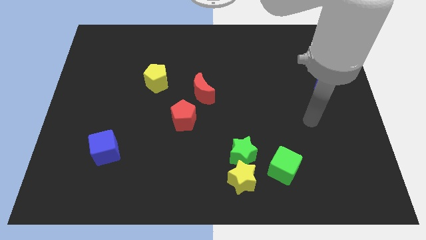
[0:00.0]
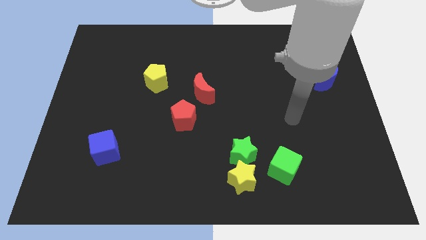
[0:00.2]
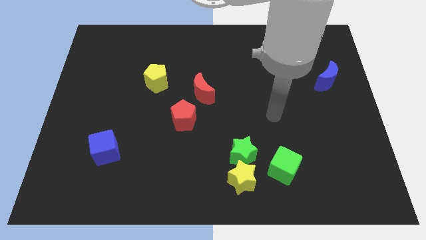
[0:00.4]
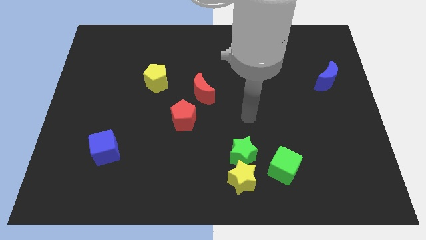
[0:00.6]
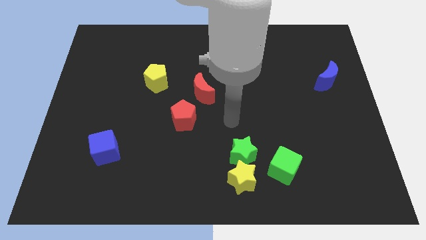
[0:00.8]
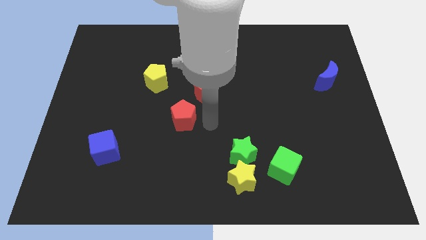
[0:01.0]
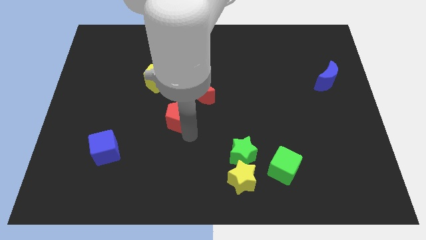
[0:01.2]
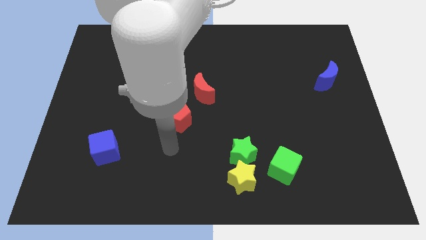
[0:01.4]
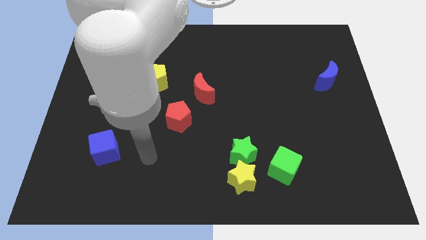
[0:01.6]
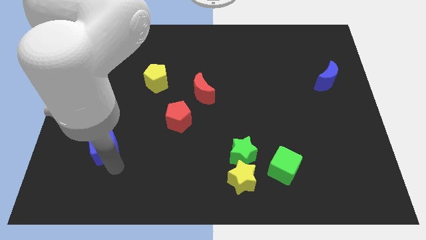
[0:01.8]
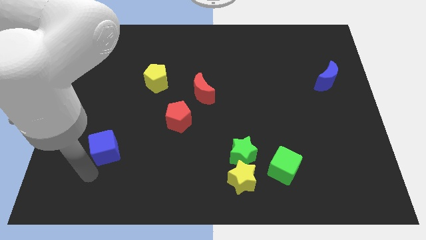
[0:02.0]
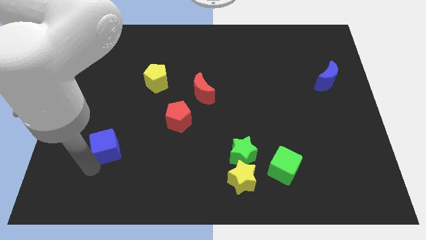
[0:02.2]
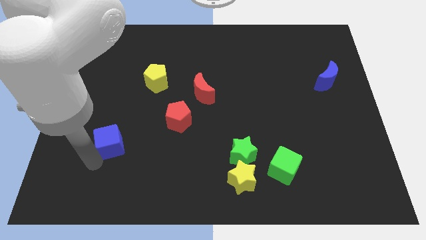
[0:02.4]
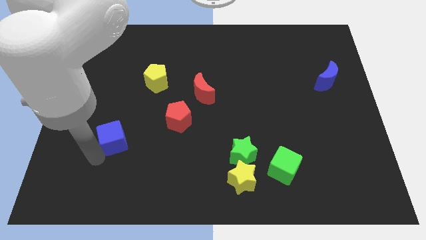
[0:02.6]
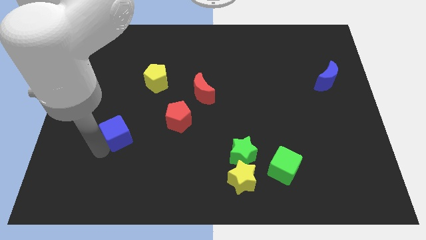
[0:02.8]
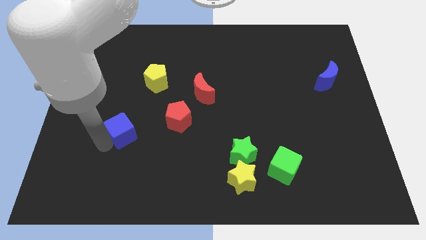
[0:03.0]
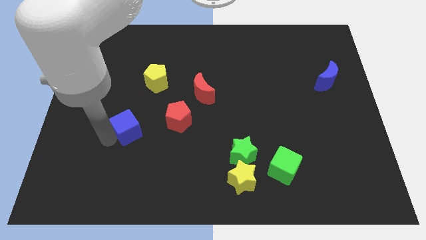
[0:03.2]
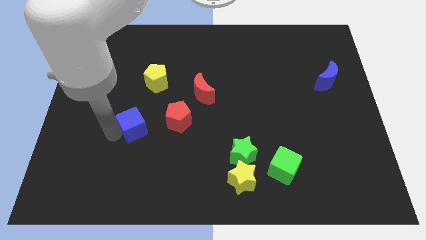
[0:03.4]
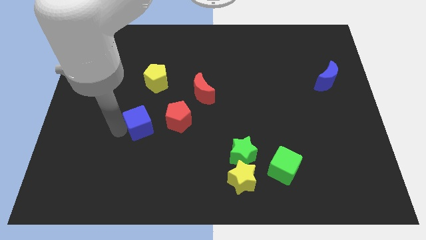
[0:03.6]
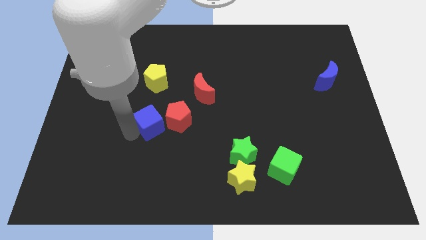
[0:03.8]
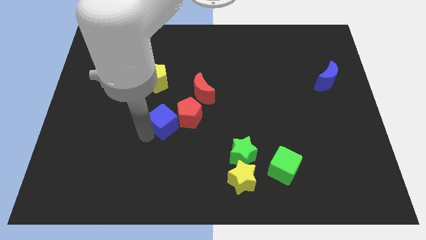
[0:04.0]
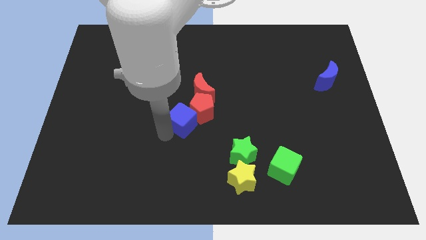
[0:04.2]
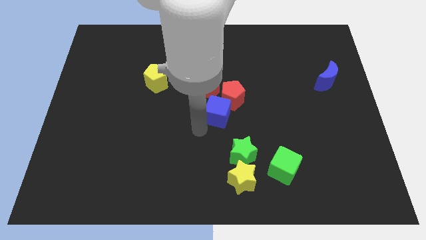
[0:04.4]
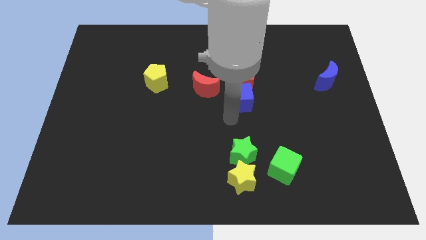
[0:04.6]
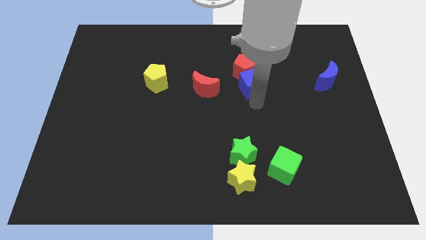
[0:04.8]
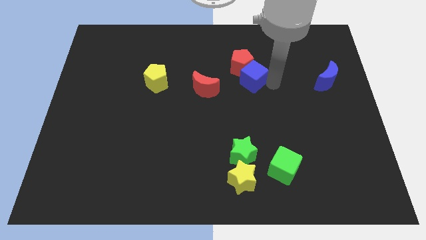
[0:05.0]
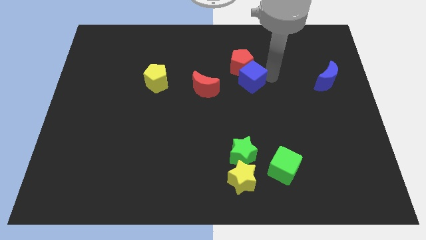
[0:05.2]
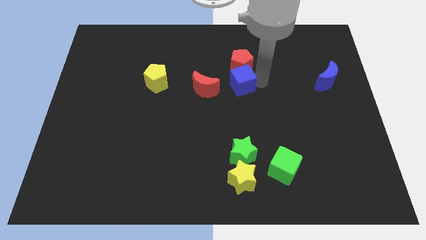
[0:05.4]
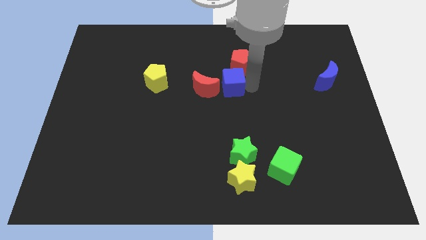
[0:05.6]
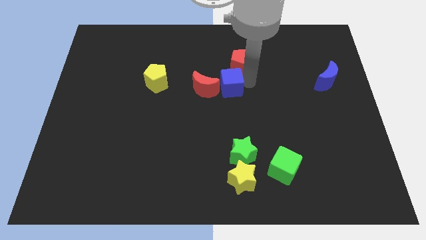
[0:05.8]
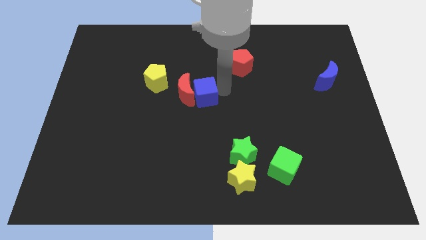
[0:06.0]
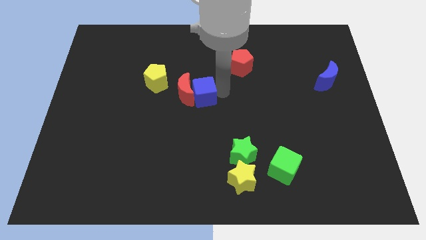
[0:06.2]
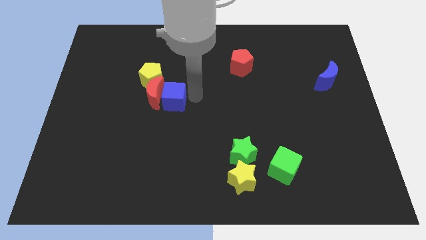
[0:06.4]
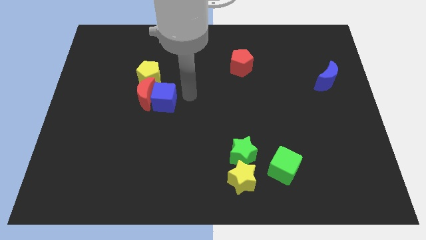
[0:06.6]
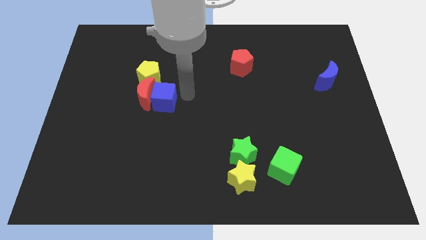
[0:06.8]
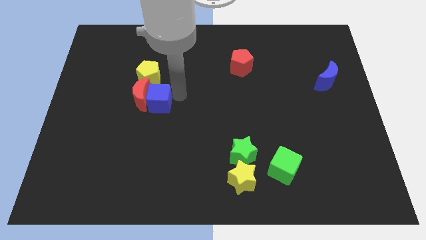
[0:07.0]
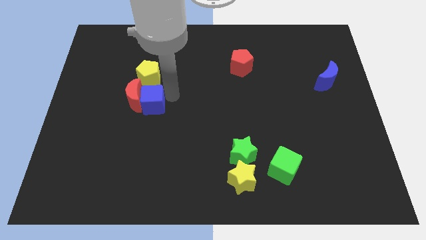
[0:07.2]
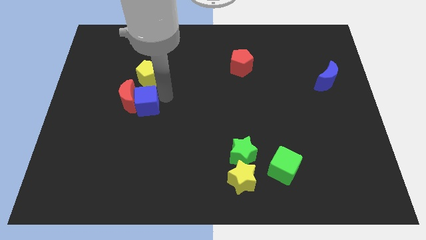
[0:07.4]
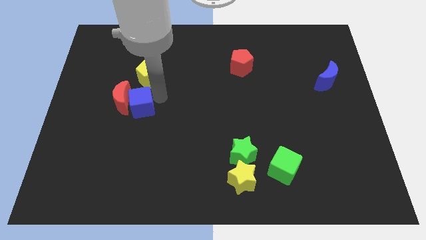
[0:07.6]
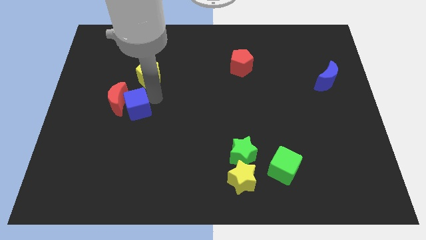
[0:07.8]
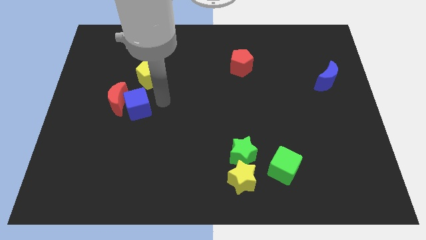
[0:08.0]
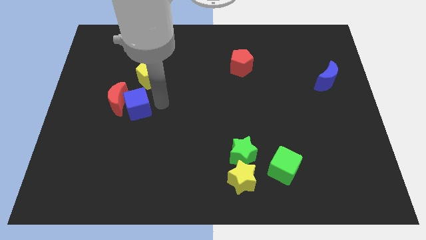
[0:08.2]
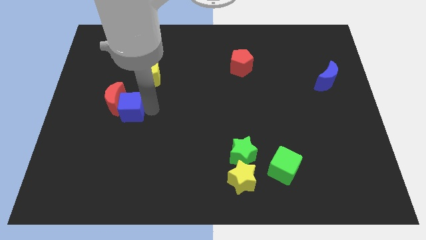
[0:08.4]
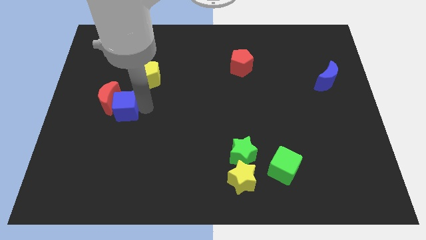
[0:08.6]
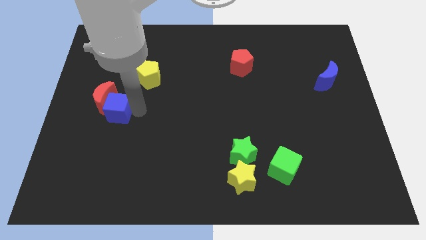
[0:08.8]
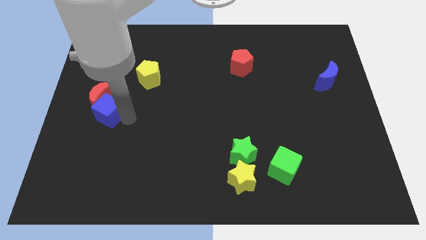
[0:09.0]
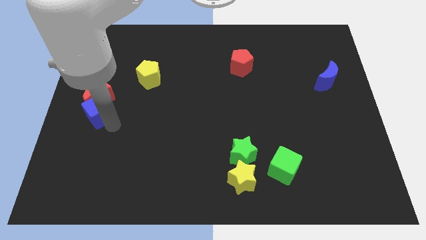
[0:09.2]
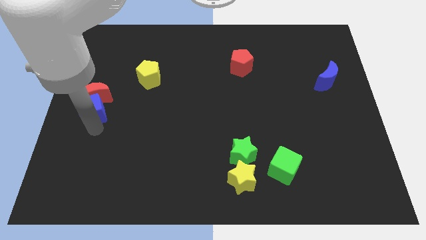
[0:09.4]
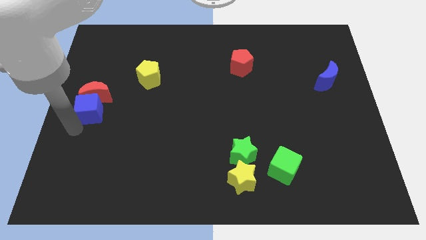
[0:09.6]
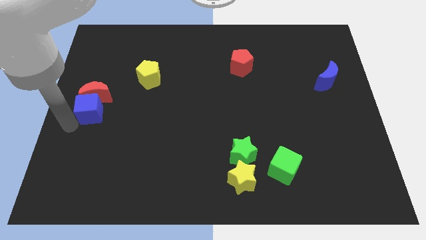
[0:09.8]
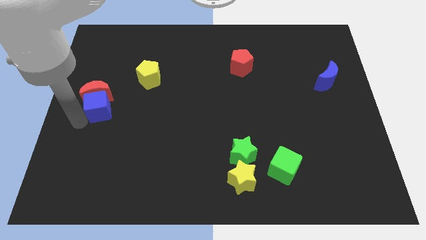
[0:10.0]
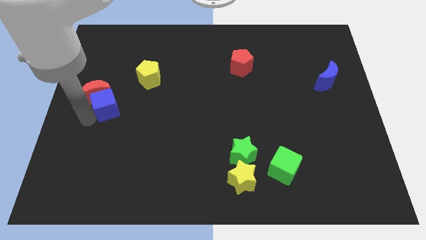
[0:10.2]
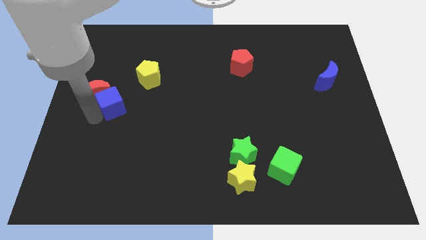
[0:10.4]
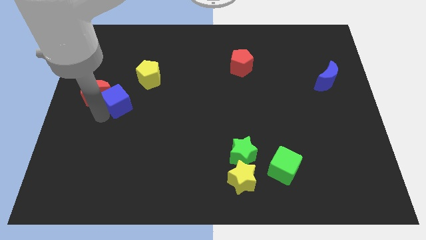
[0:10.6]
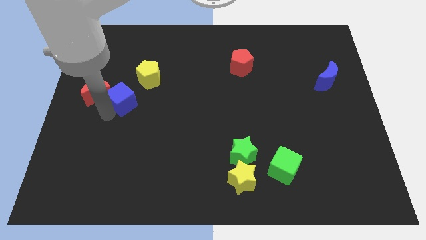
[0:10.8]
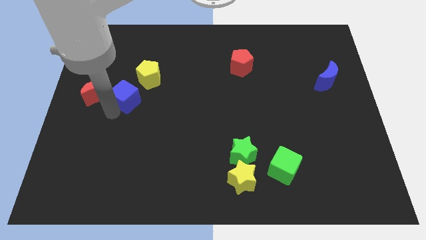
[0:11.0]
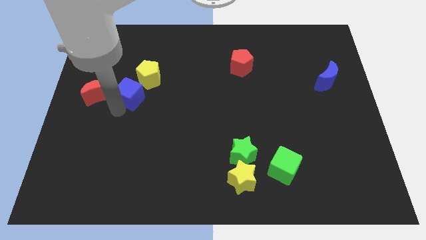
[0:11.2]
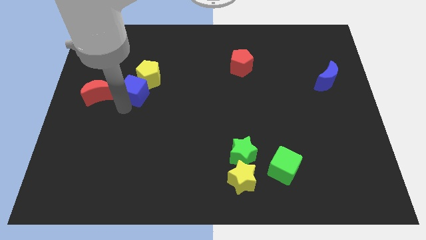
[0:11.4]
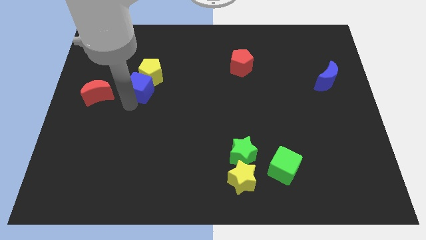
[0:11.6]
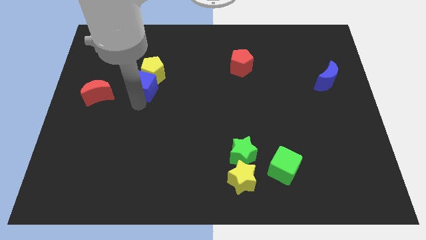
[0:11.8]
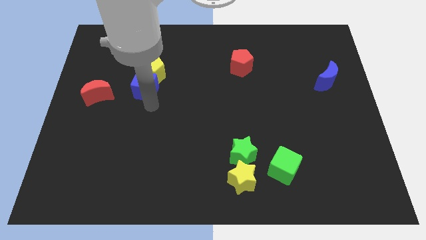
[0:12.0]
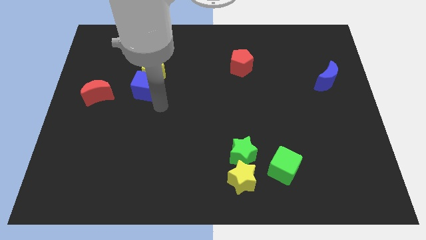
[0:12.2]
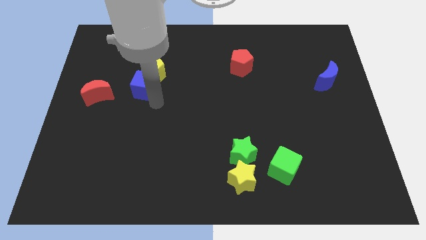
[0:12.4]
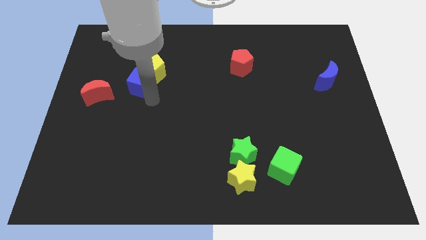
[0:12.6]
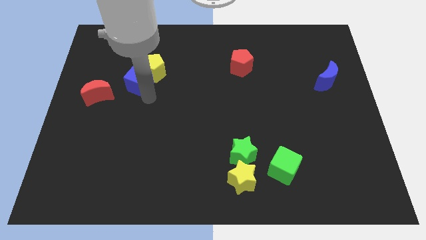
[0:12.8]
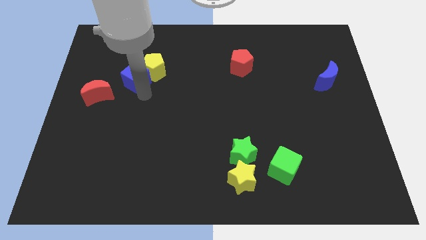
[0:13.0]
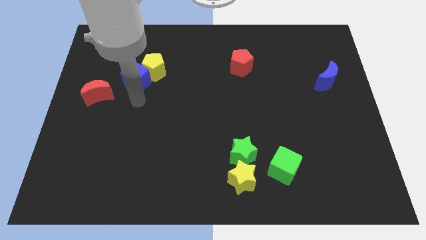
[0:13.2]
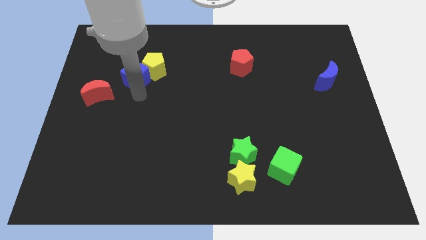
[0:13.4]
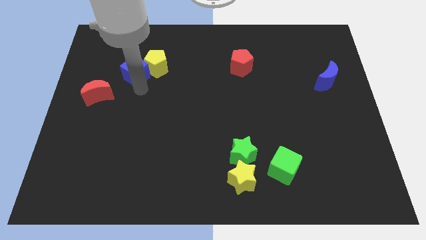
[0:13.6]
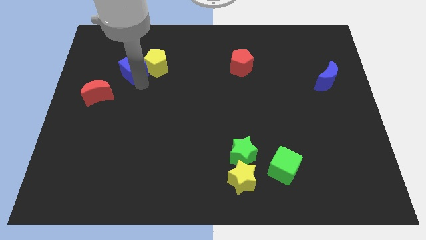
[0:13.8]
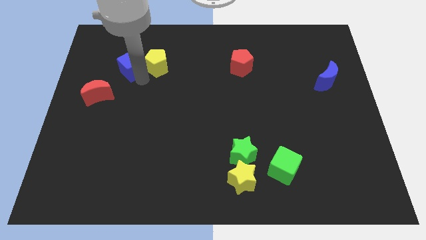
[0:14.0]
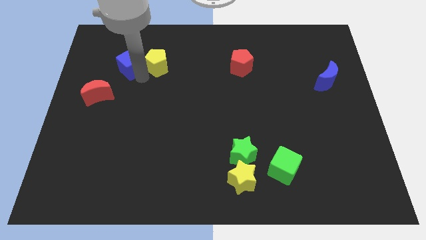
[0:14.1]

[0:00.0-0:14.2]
move the blue cube diagonally up and to the left of the yellow pentagon
